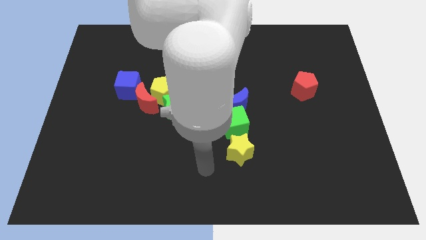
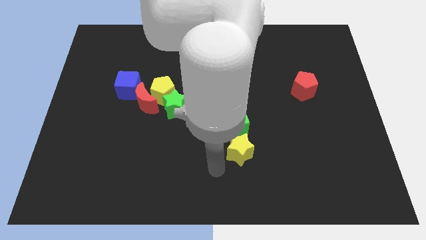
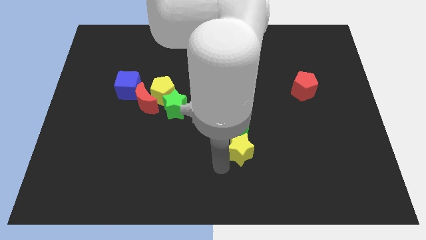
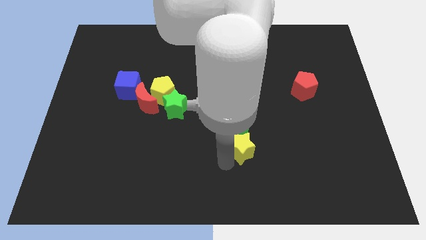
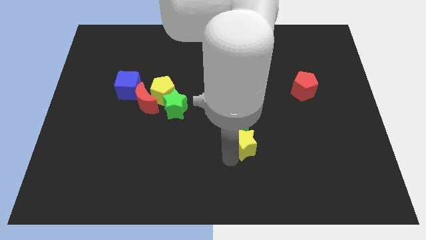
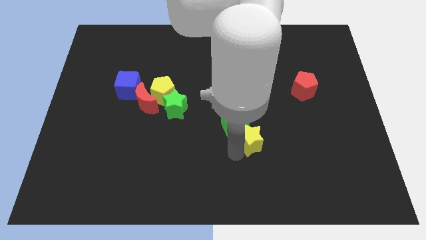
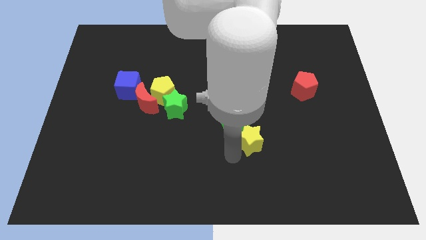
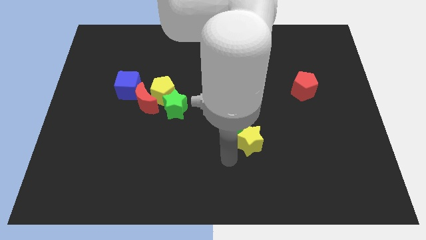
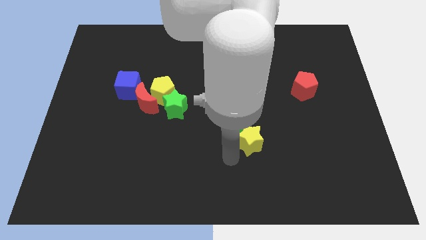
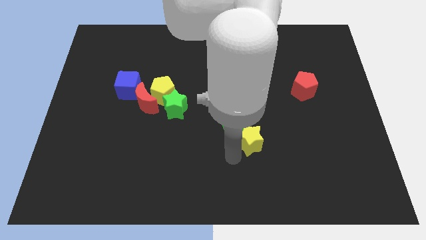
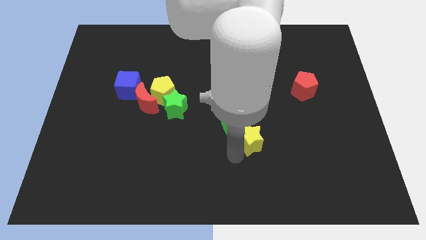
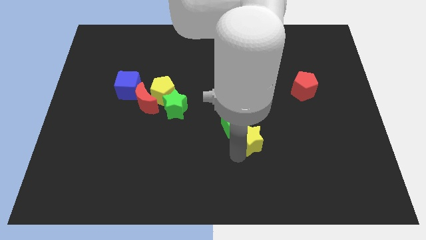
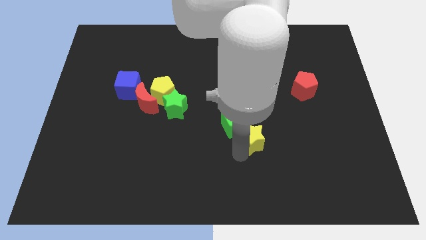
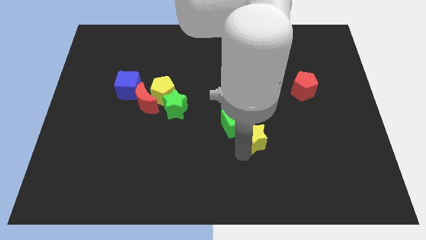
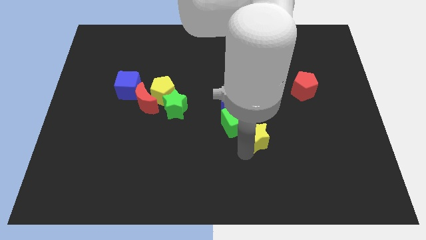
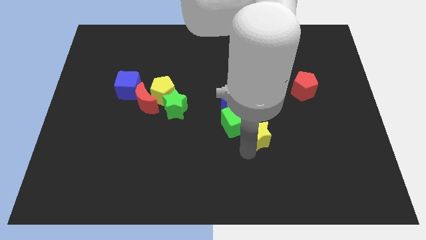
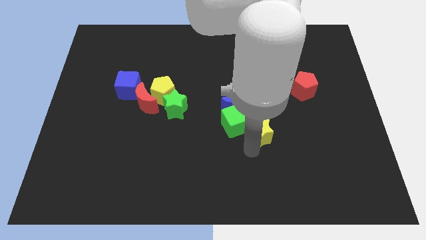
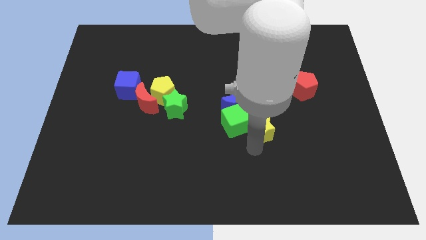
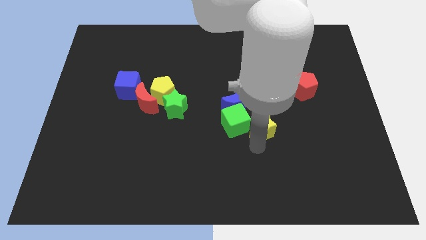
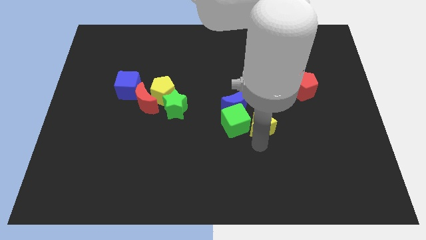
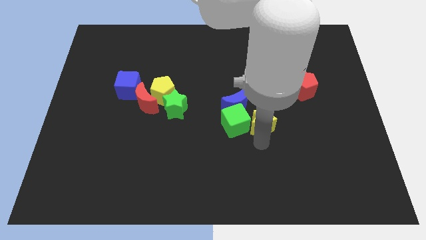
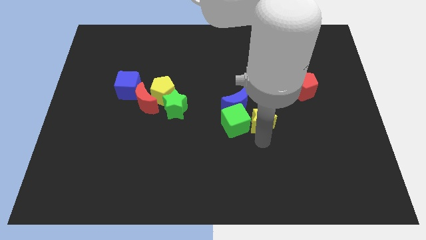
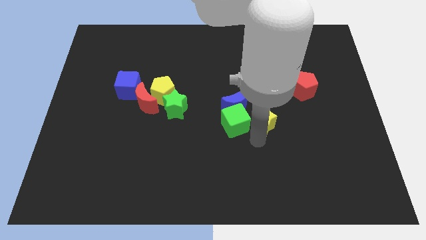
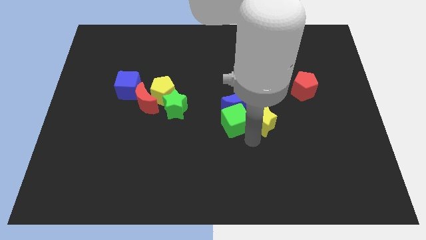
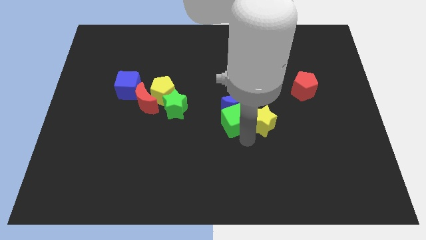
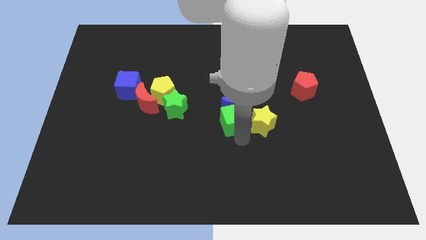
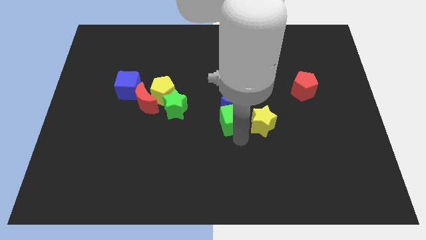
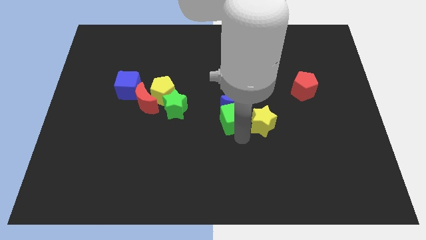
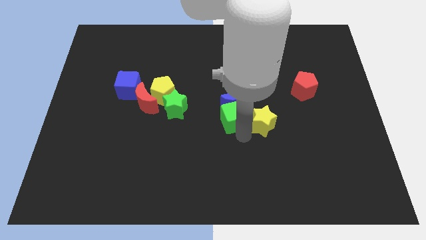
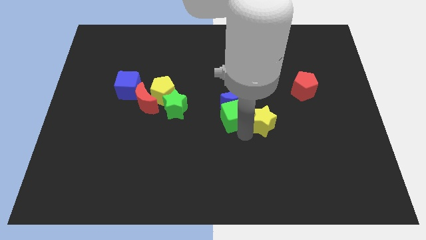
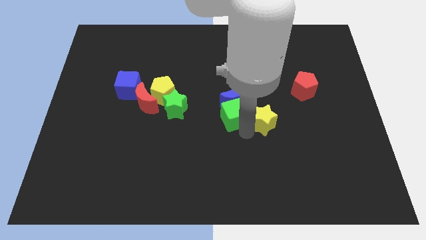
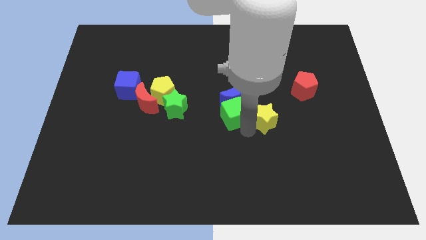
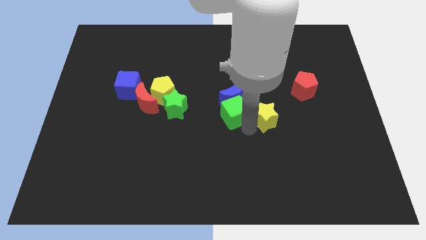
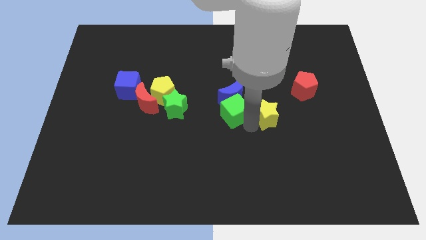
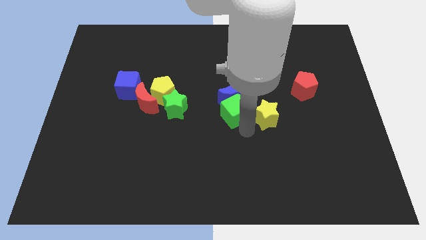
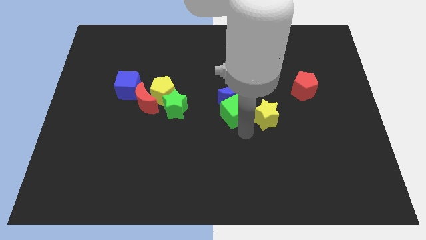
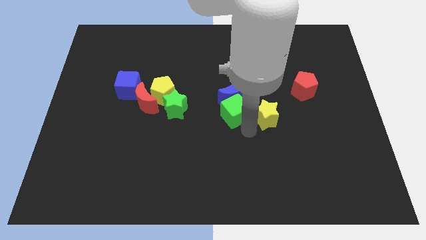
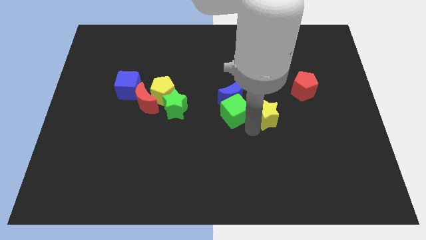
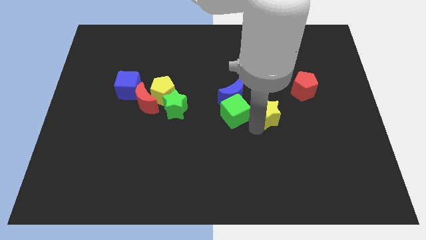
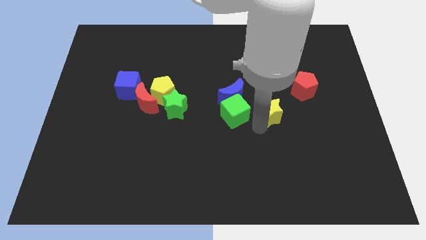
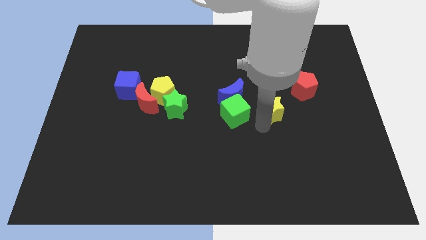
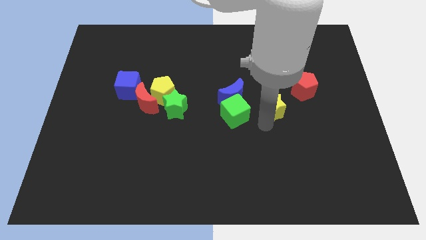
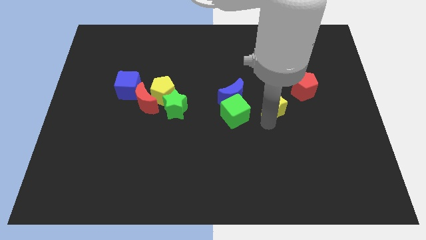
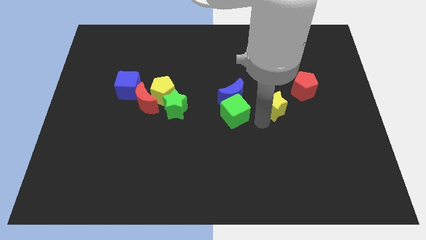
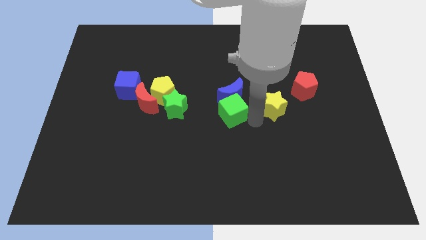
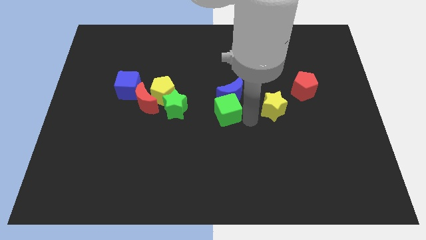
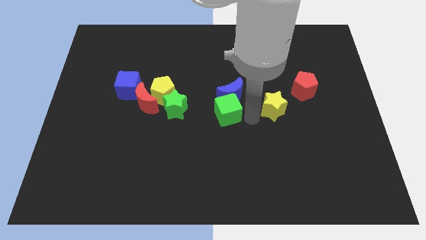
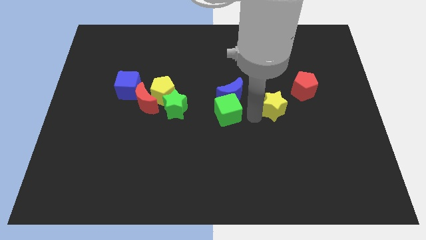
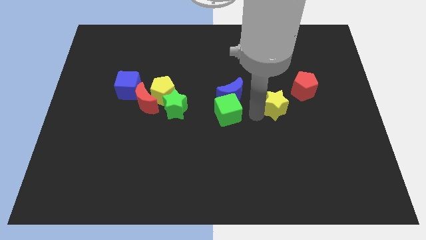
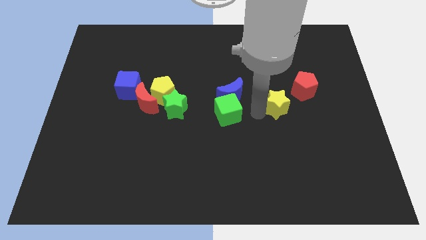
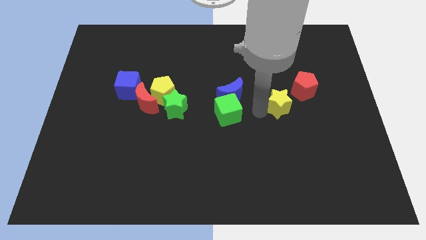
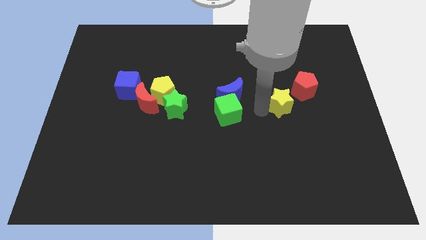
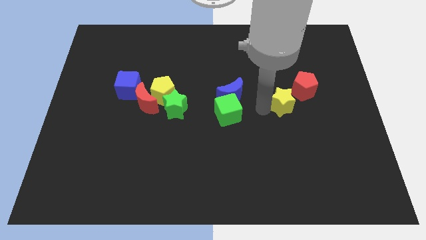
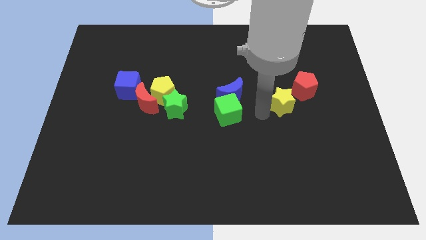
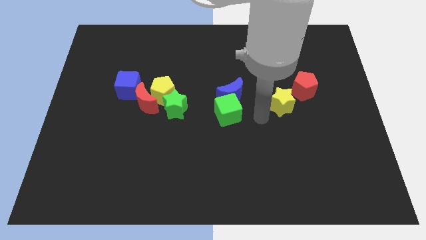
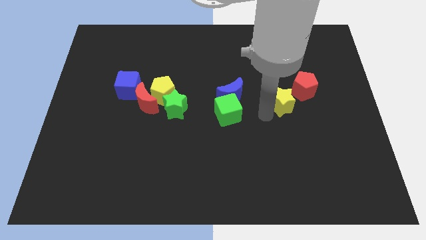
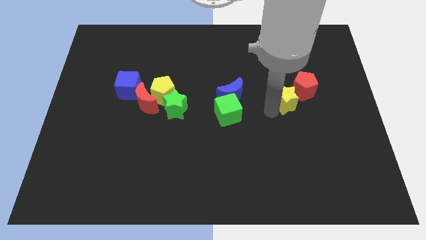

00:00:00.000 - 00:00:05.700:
put the yellow star next to the red pentagon

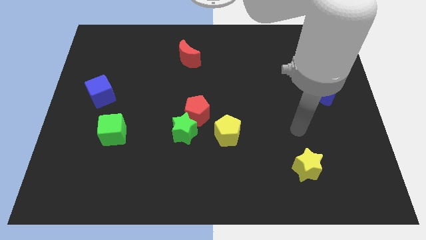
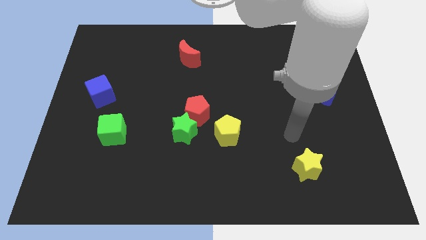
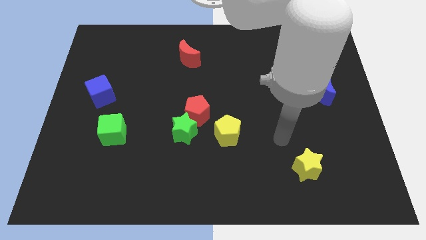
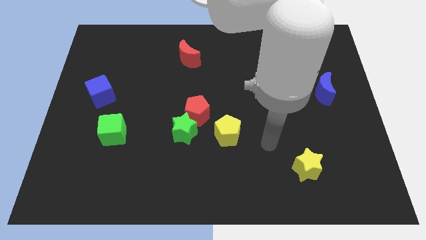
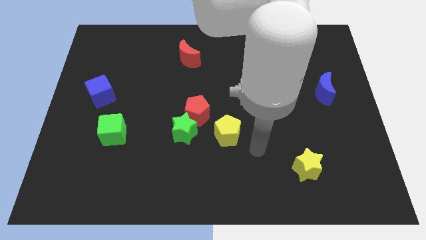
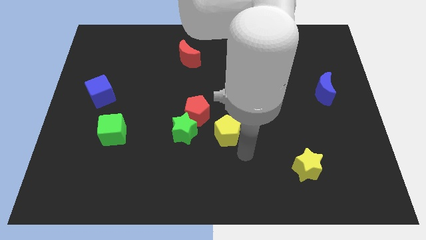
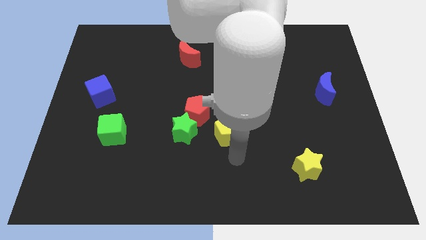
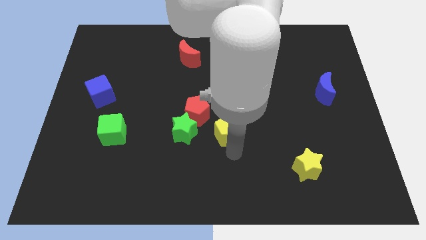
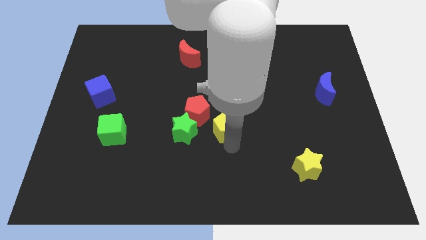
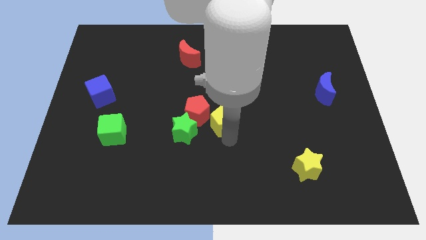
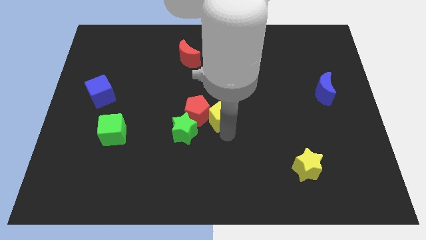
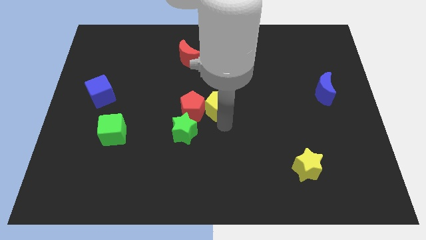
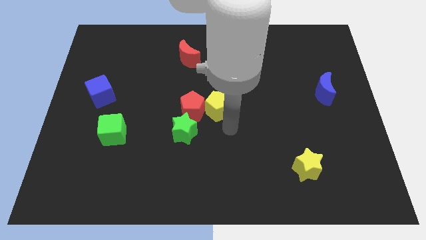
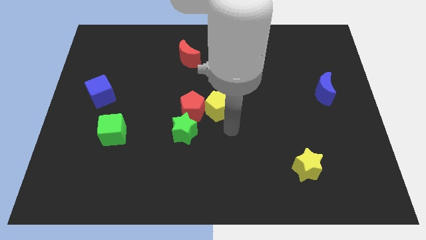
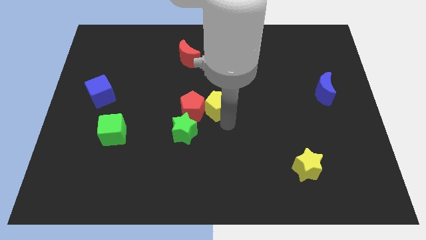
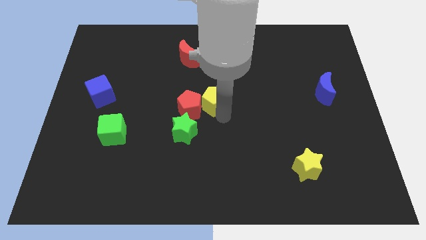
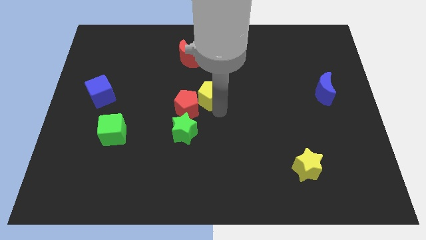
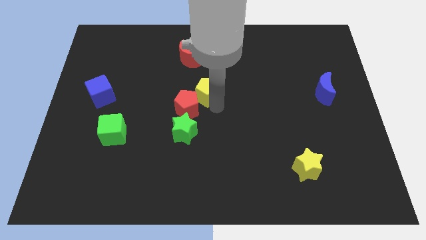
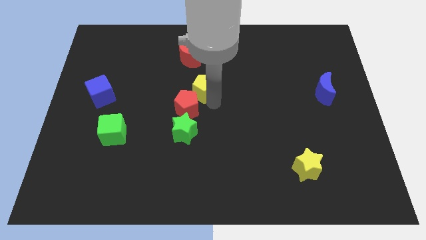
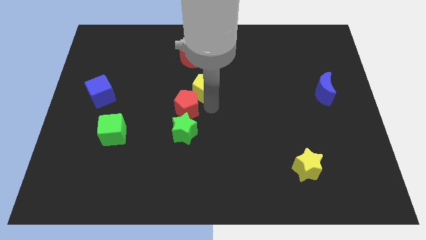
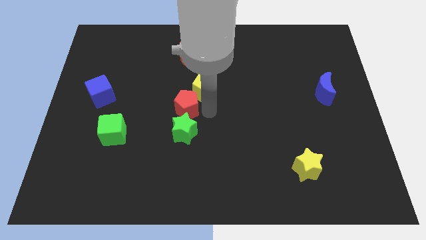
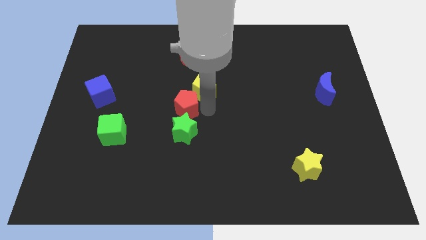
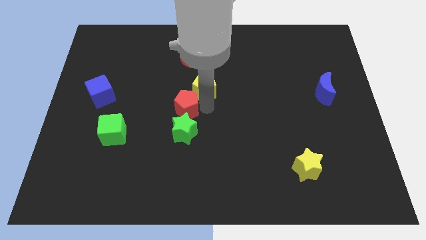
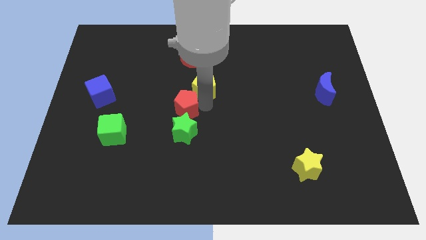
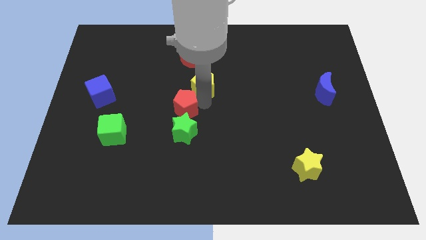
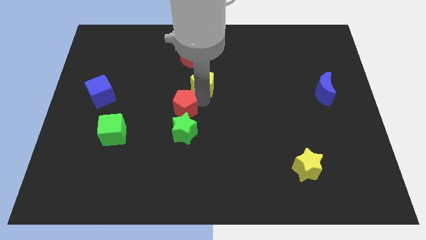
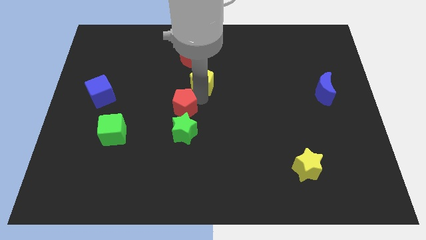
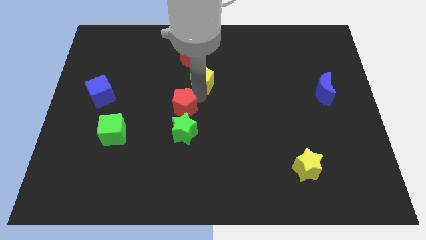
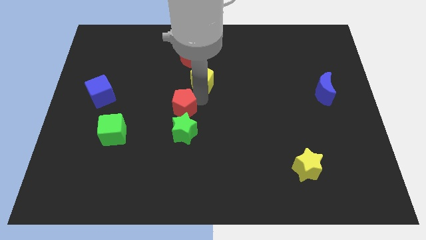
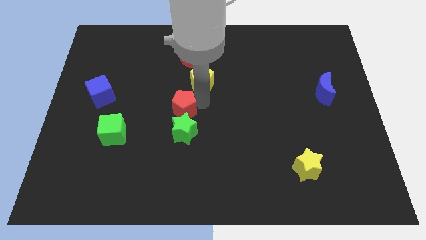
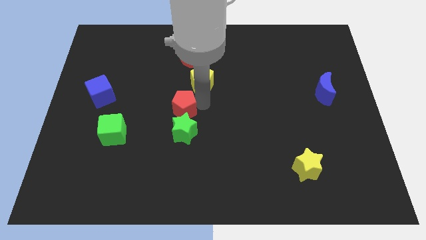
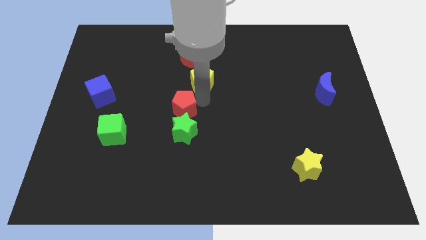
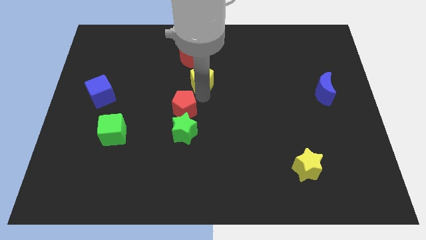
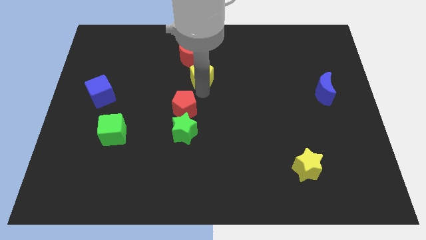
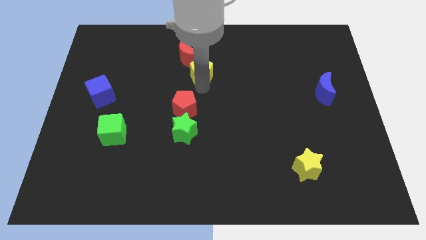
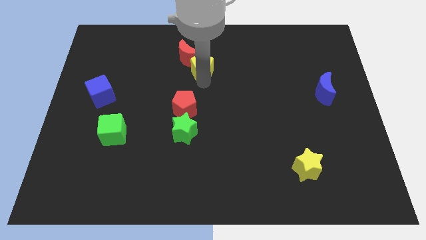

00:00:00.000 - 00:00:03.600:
push the yellow pentagon next to the red moon
